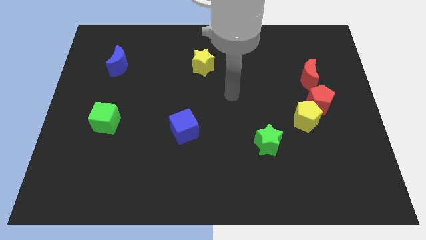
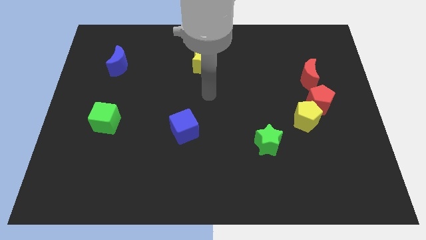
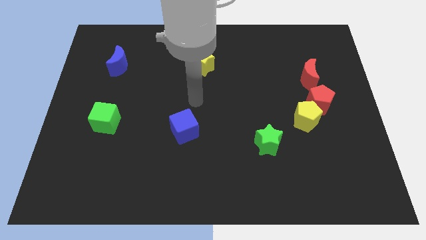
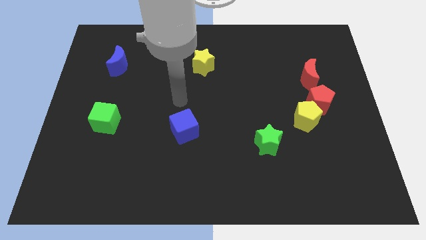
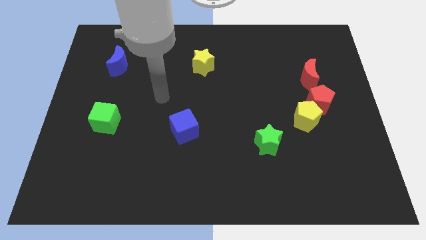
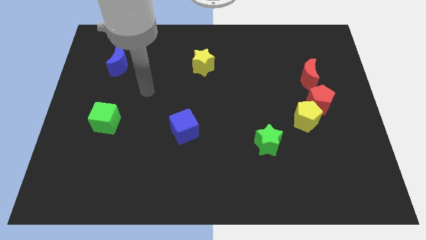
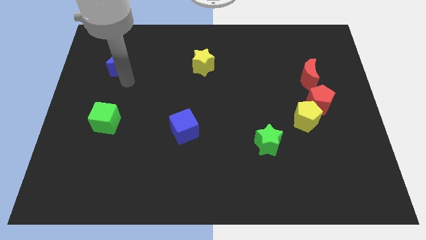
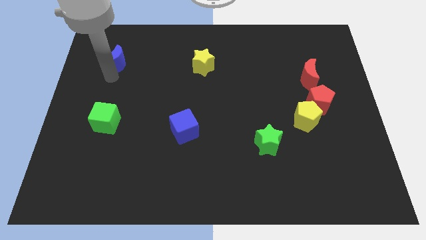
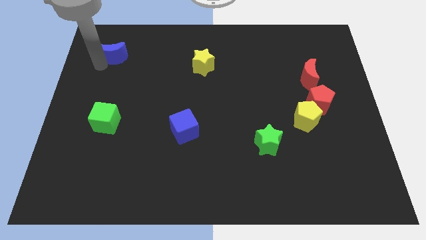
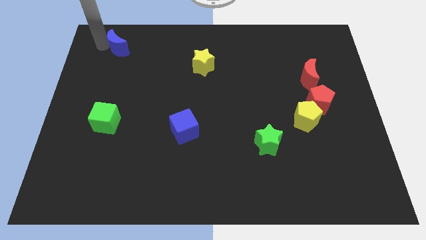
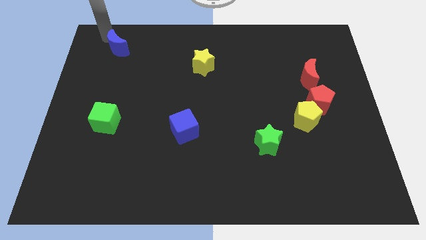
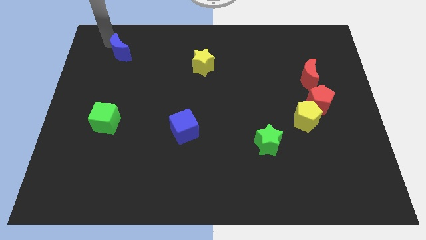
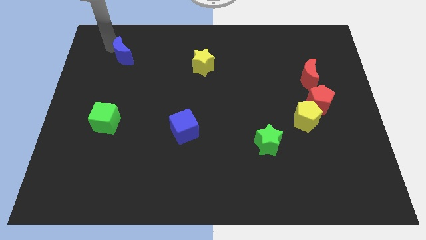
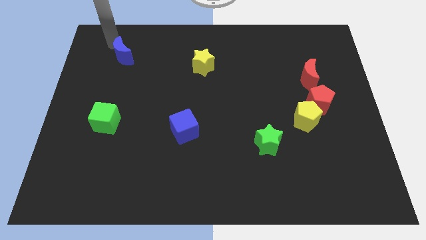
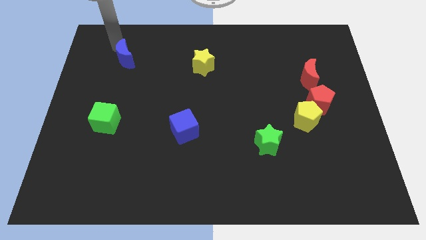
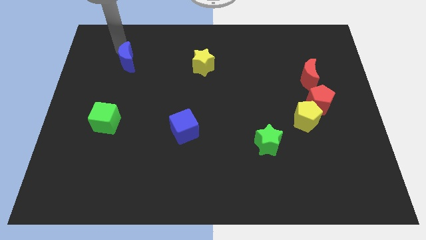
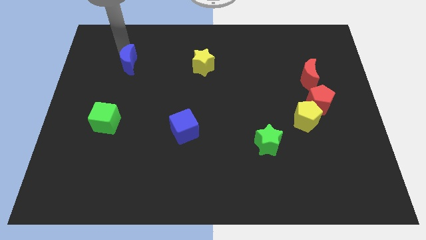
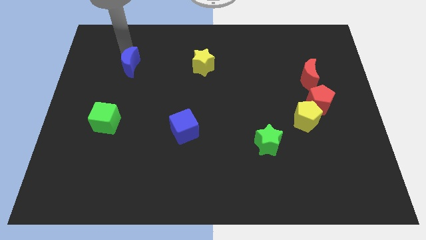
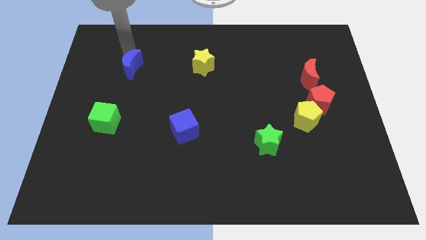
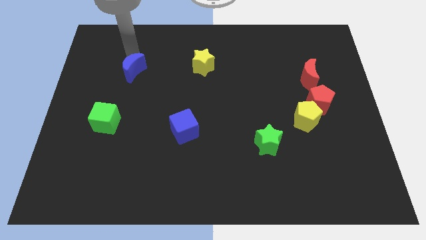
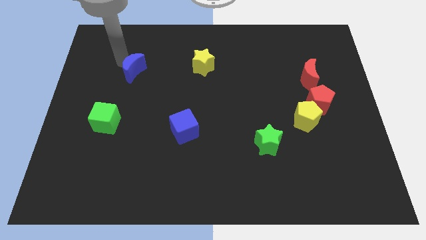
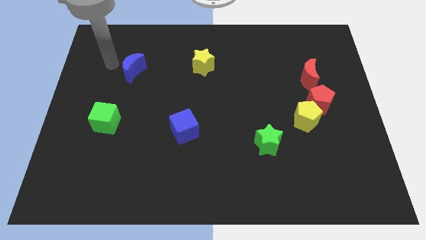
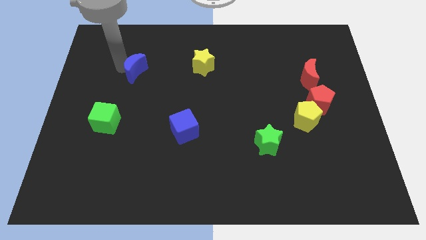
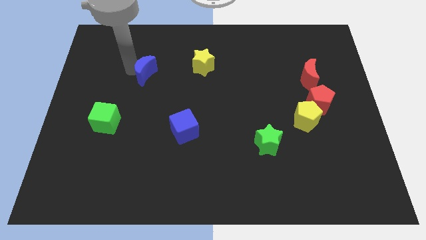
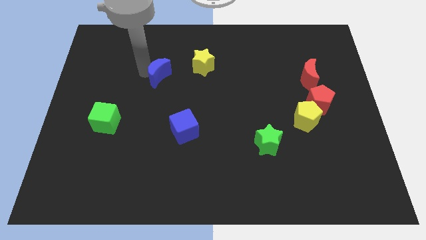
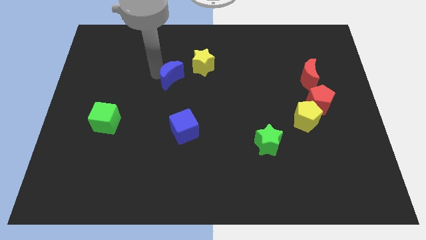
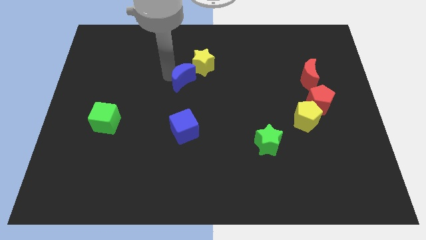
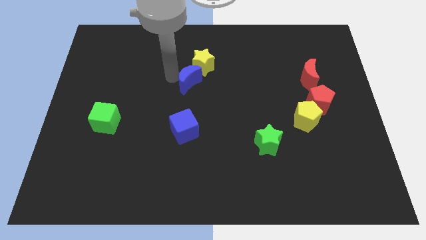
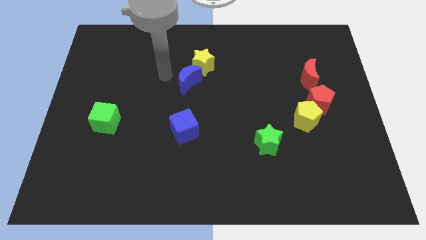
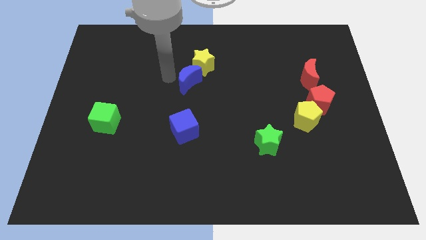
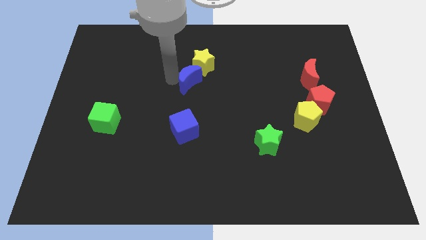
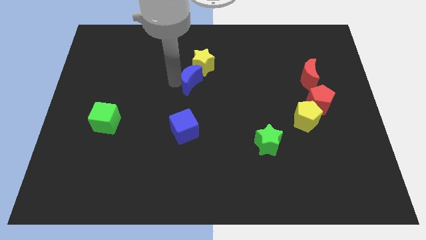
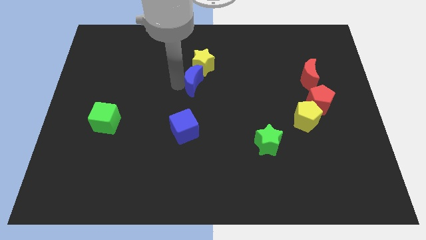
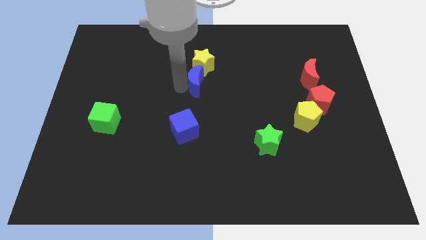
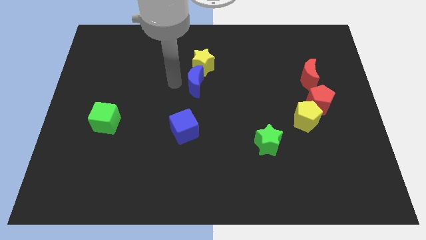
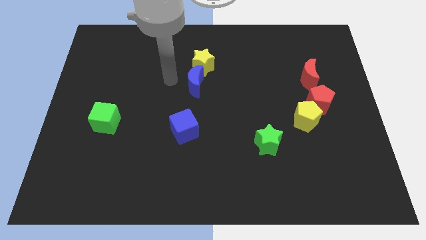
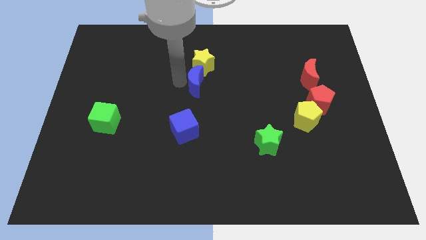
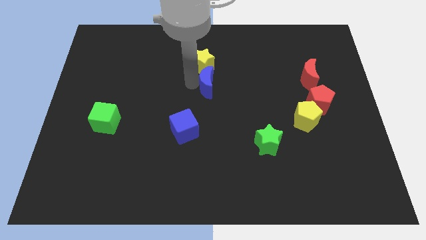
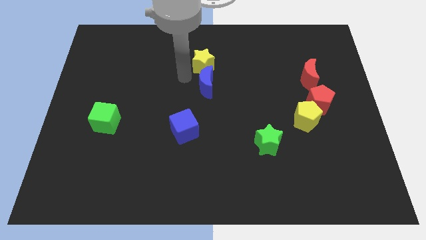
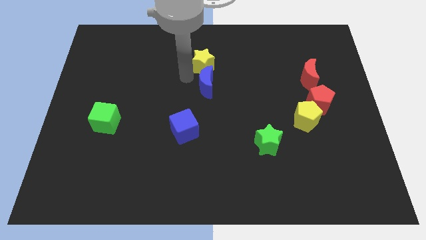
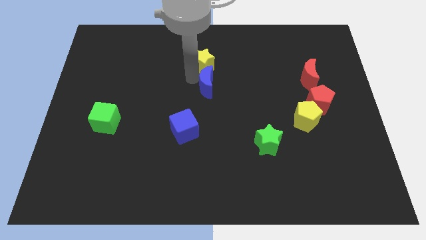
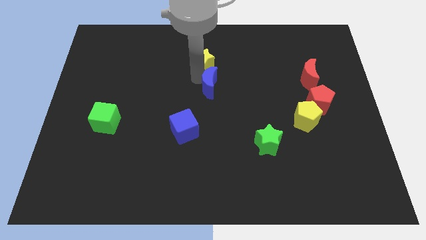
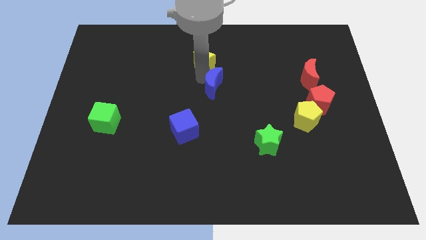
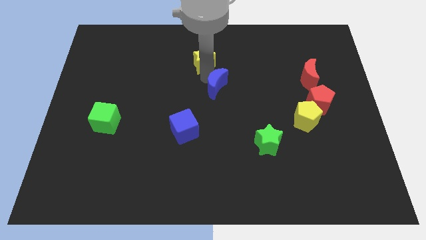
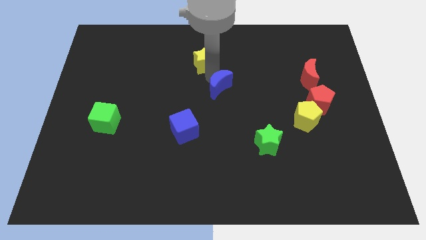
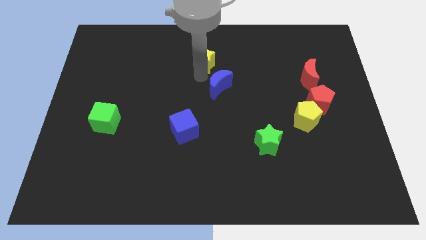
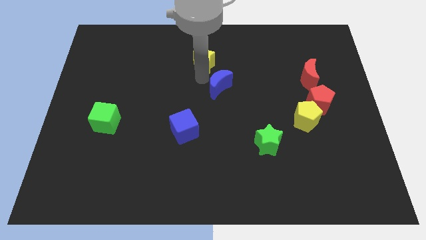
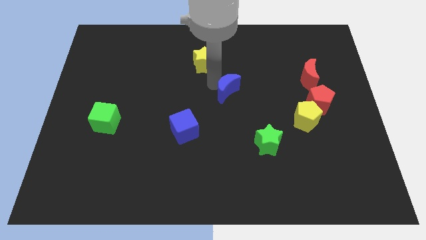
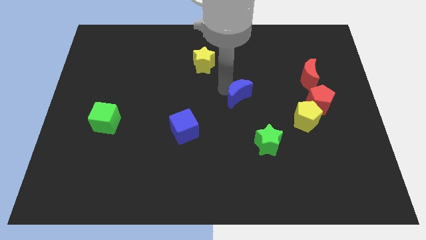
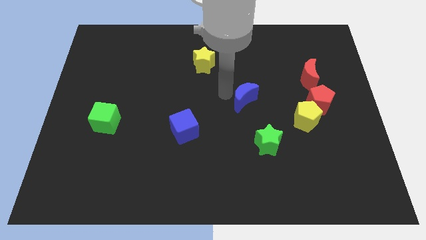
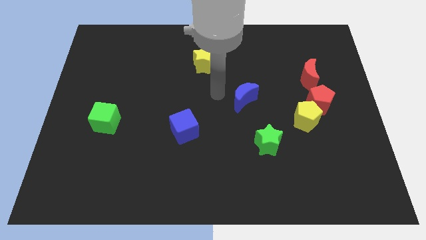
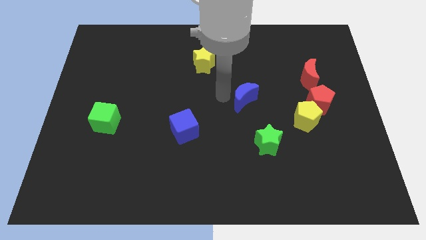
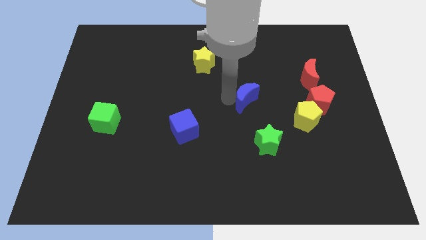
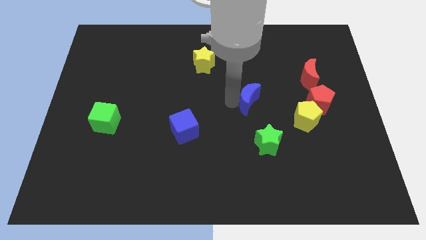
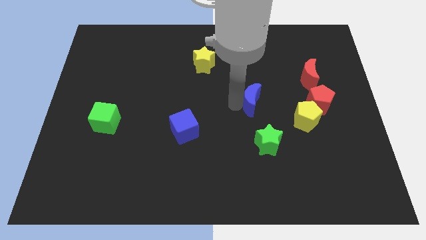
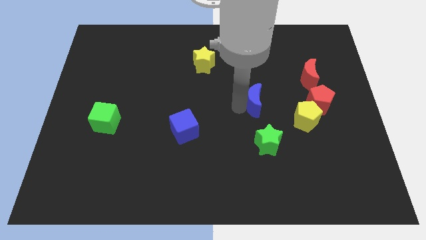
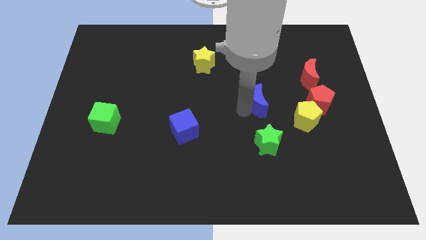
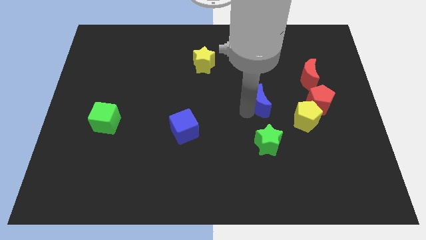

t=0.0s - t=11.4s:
slide the blue moon to the top left side of the yellow pentagon
